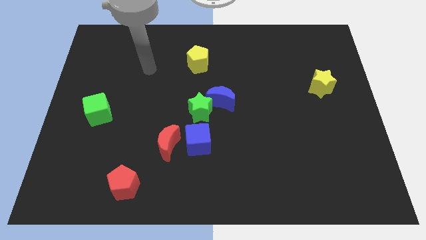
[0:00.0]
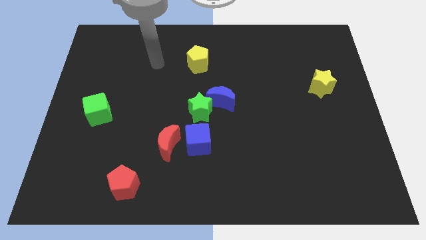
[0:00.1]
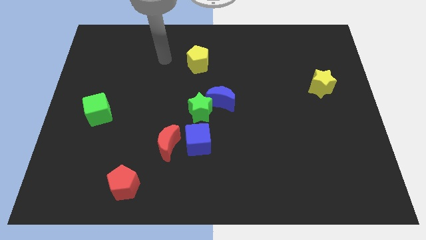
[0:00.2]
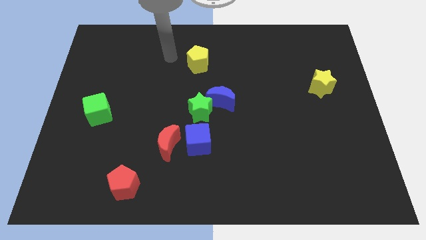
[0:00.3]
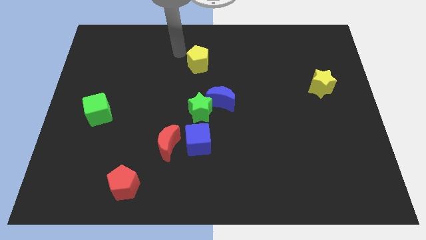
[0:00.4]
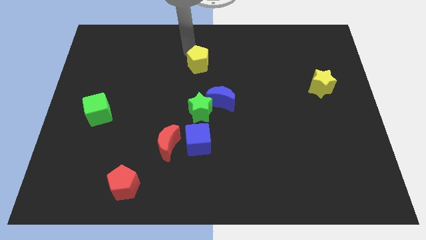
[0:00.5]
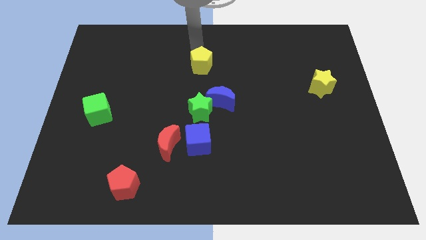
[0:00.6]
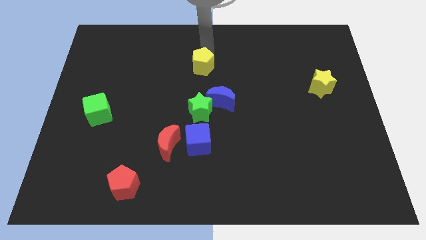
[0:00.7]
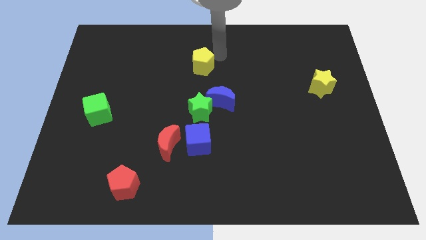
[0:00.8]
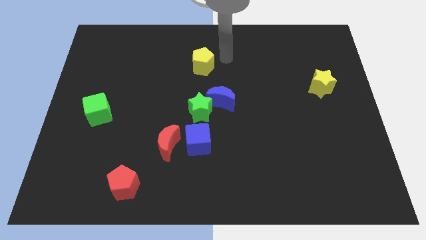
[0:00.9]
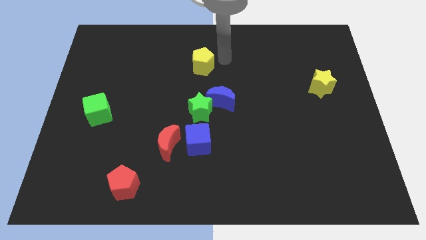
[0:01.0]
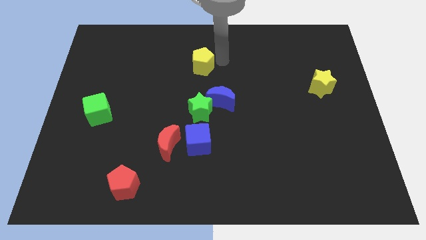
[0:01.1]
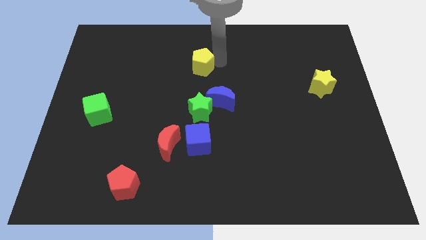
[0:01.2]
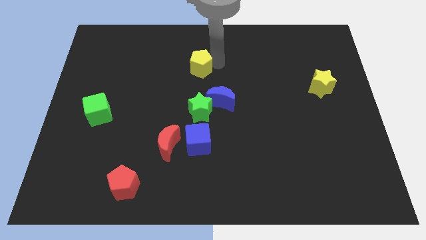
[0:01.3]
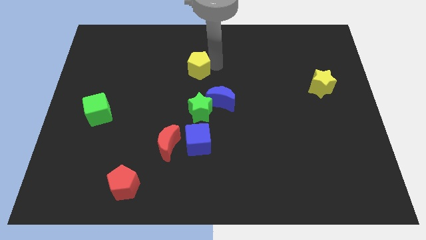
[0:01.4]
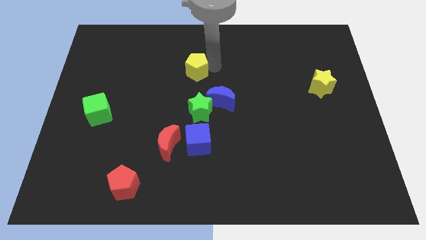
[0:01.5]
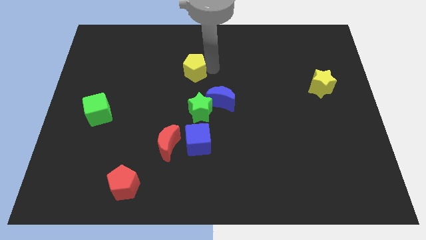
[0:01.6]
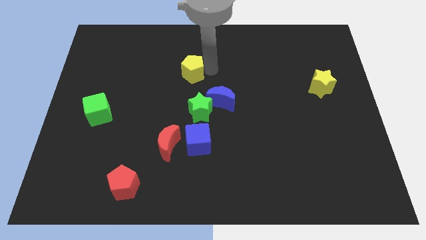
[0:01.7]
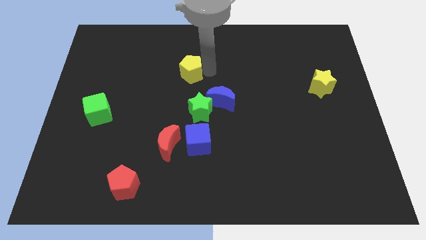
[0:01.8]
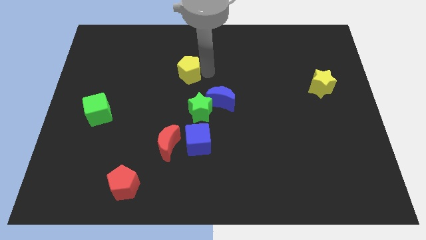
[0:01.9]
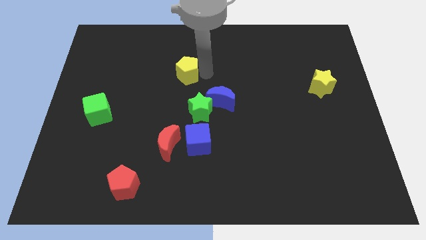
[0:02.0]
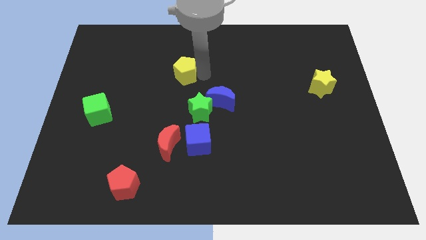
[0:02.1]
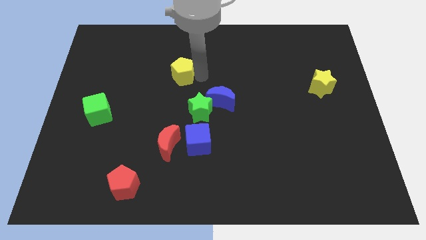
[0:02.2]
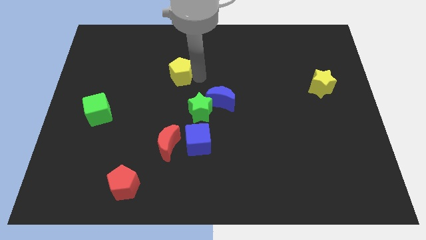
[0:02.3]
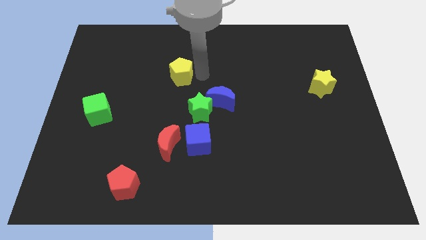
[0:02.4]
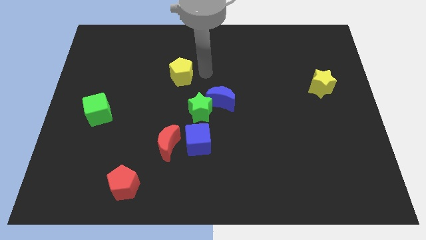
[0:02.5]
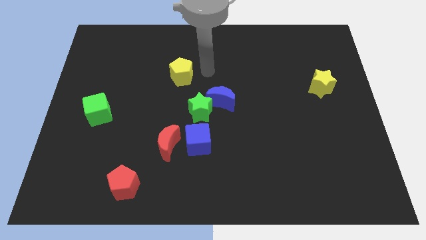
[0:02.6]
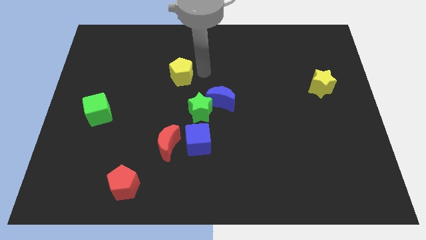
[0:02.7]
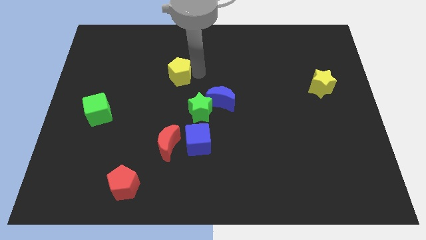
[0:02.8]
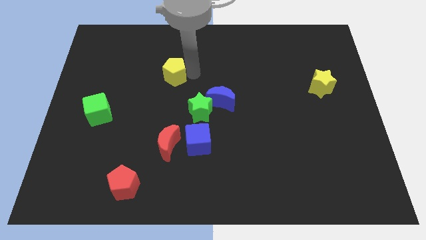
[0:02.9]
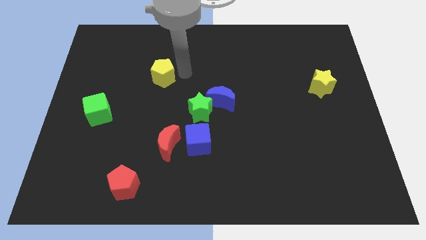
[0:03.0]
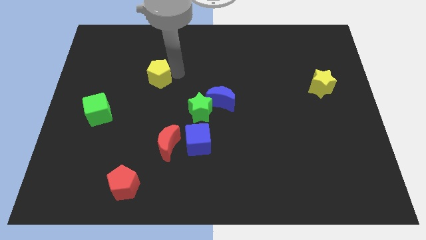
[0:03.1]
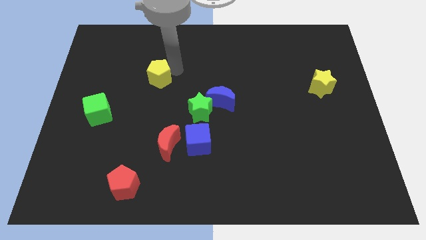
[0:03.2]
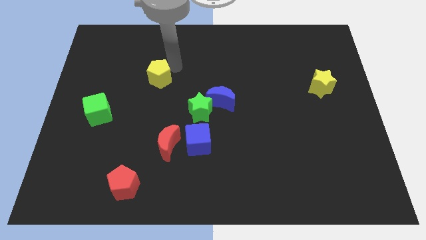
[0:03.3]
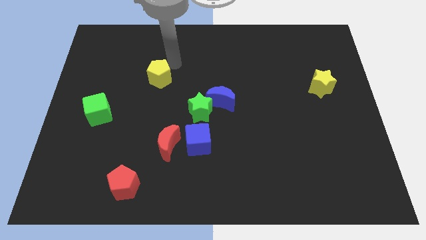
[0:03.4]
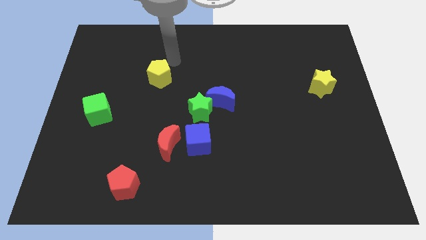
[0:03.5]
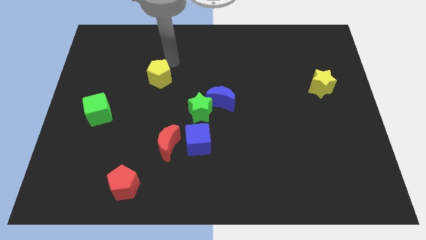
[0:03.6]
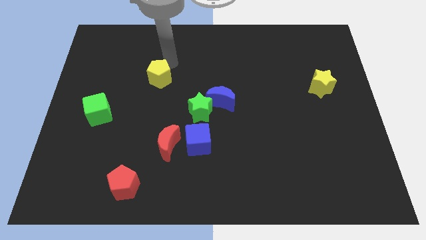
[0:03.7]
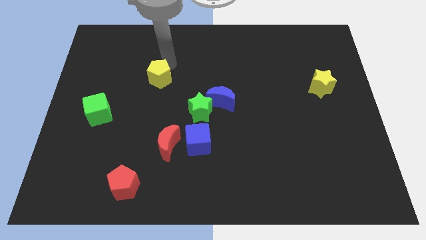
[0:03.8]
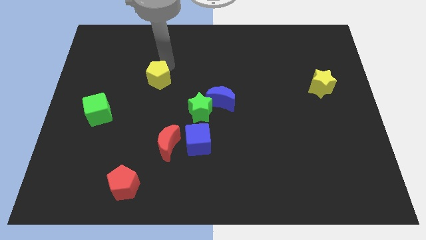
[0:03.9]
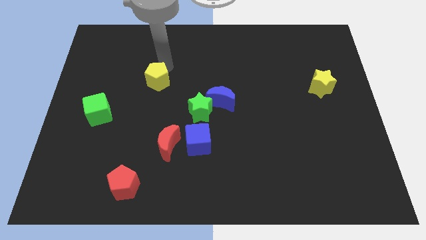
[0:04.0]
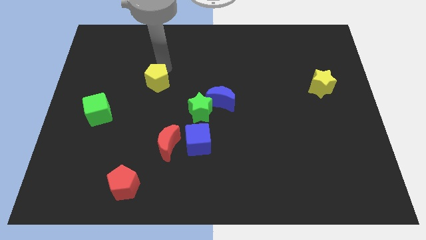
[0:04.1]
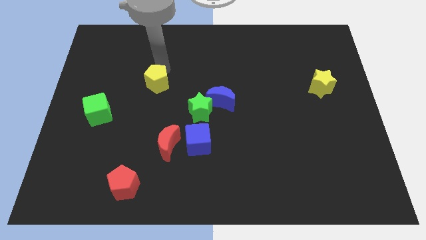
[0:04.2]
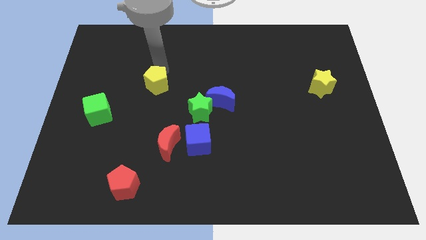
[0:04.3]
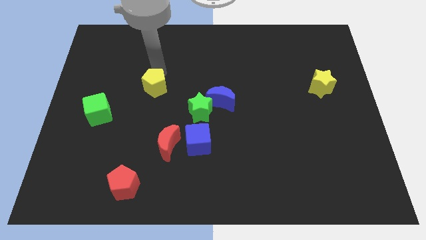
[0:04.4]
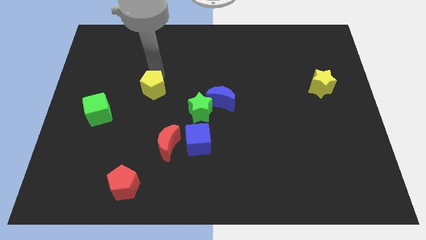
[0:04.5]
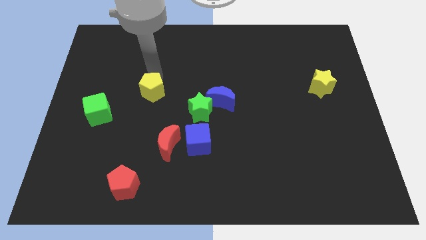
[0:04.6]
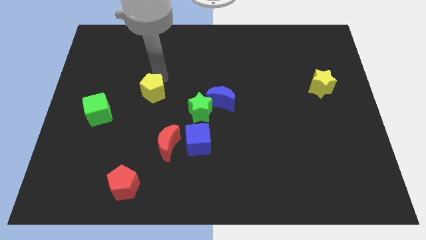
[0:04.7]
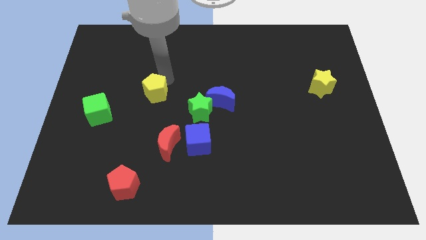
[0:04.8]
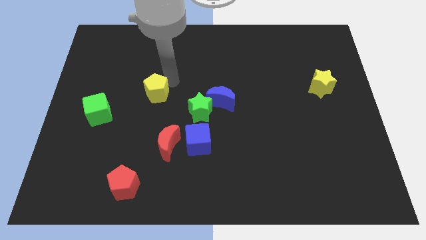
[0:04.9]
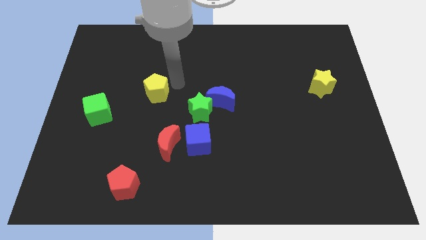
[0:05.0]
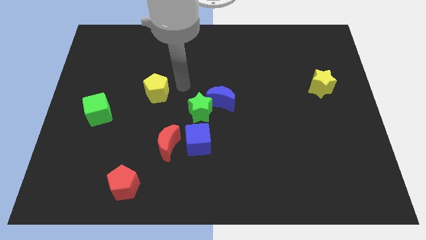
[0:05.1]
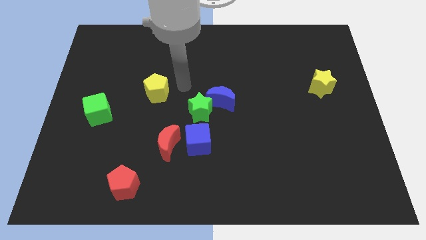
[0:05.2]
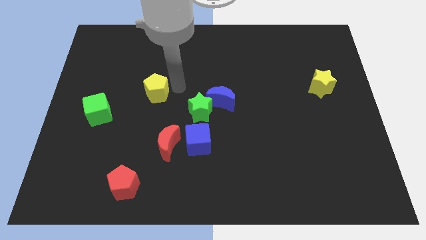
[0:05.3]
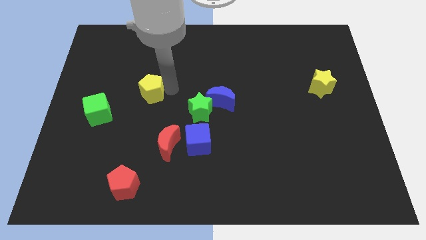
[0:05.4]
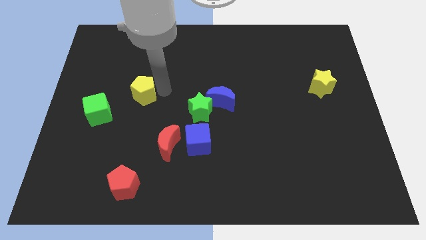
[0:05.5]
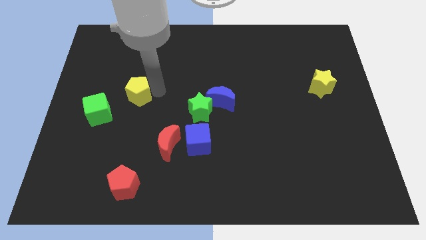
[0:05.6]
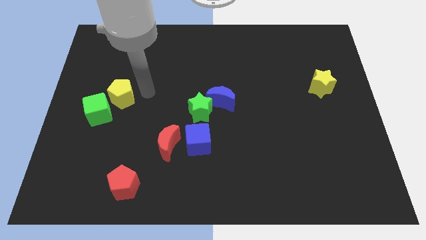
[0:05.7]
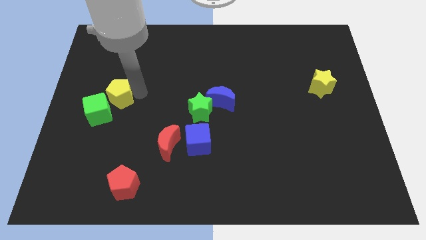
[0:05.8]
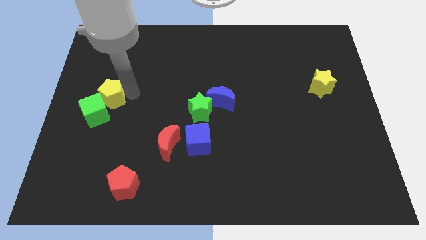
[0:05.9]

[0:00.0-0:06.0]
put the yellow pentagon next to the green cube

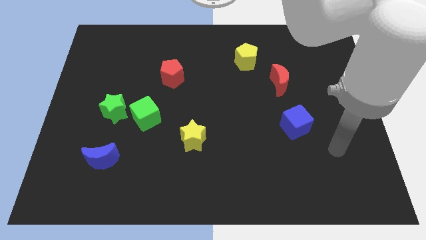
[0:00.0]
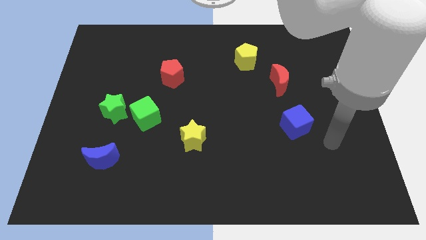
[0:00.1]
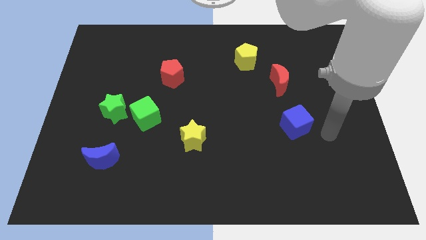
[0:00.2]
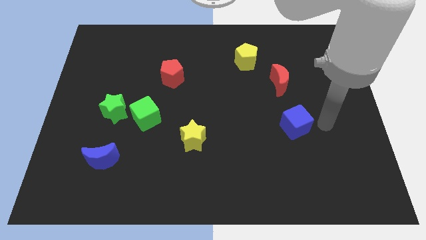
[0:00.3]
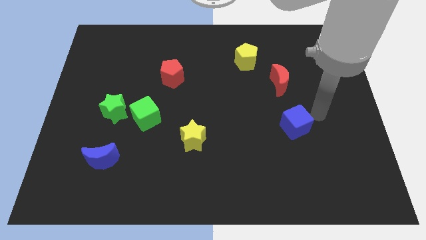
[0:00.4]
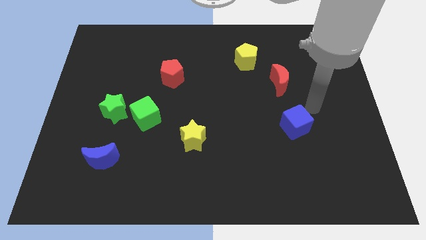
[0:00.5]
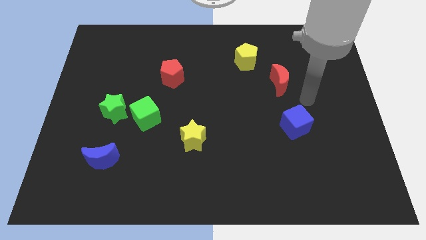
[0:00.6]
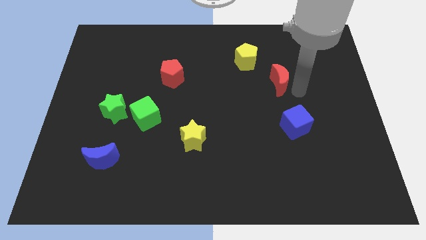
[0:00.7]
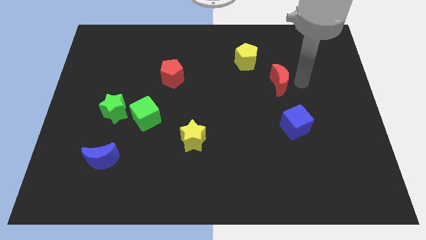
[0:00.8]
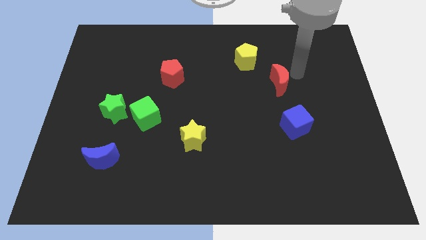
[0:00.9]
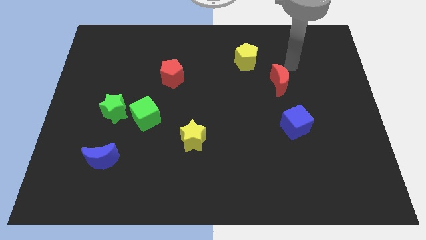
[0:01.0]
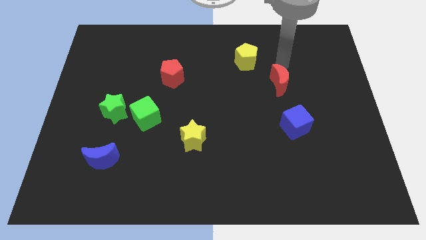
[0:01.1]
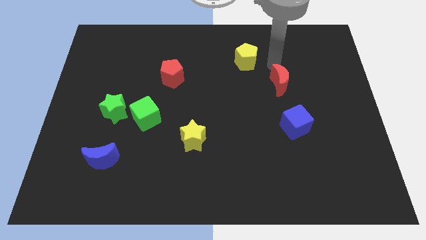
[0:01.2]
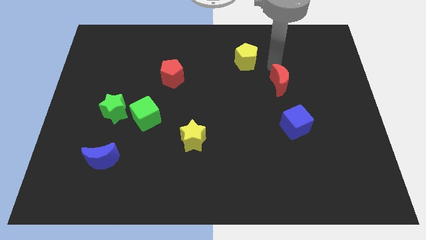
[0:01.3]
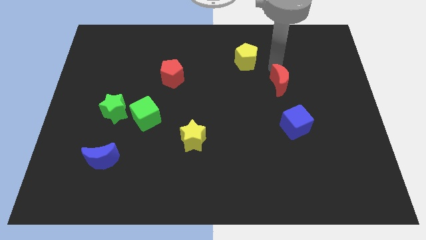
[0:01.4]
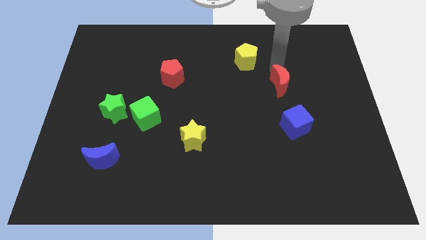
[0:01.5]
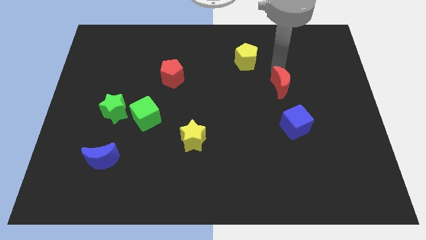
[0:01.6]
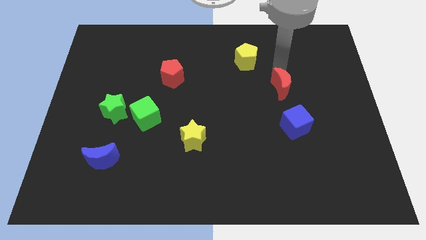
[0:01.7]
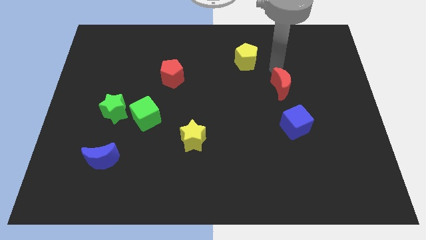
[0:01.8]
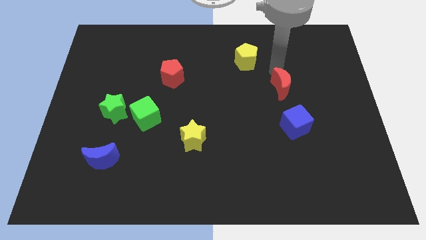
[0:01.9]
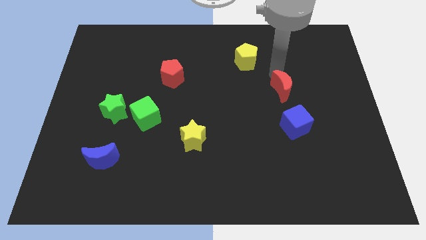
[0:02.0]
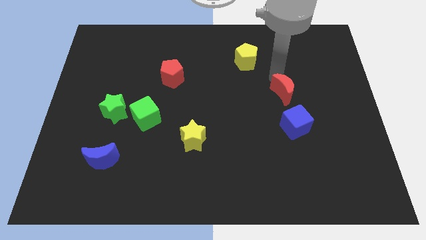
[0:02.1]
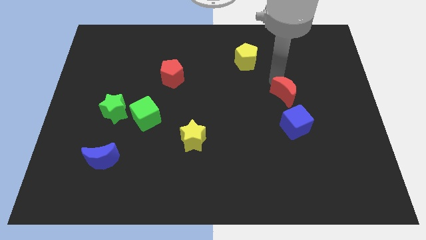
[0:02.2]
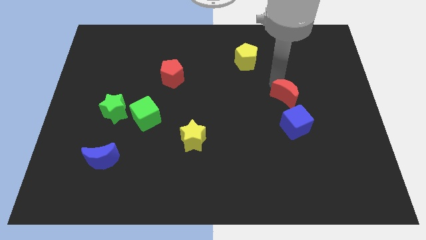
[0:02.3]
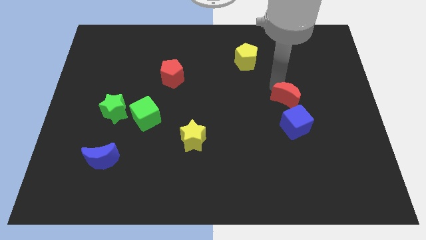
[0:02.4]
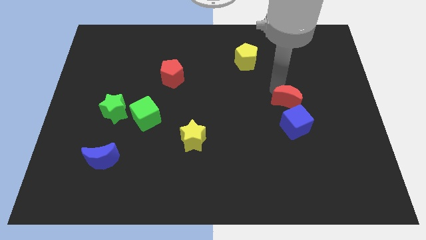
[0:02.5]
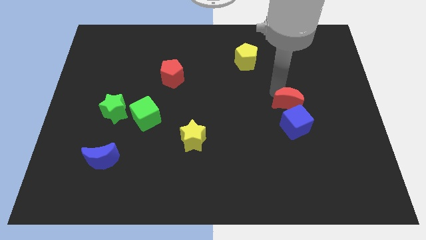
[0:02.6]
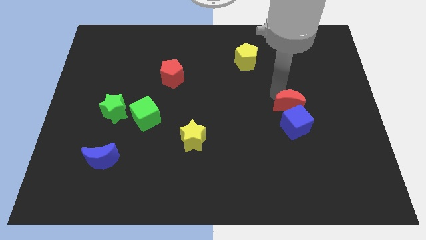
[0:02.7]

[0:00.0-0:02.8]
slide the red moon next to the blue cube
